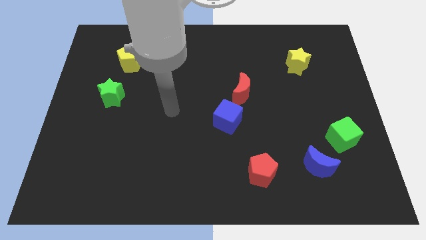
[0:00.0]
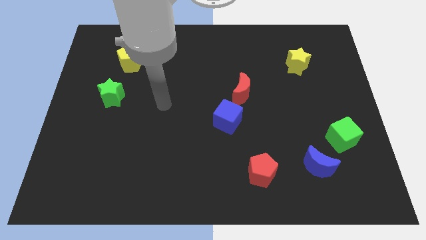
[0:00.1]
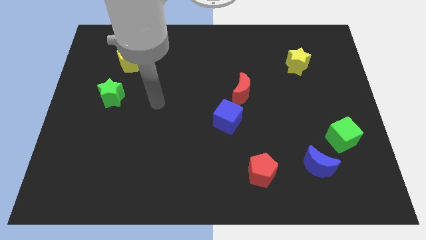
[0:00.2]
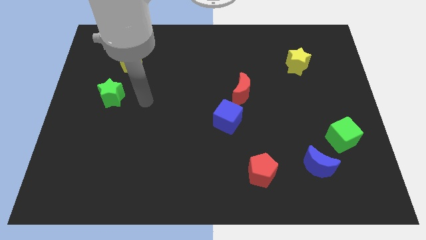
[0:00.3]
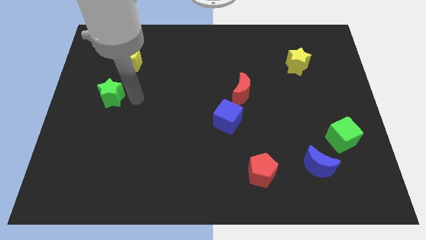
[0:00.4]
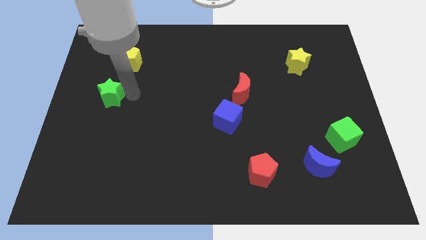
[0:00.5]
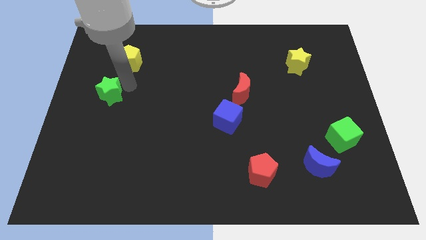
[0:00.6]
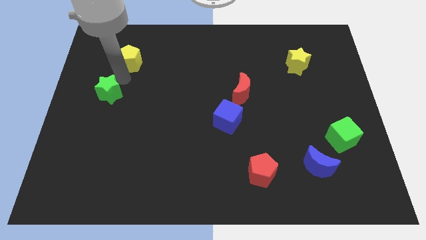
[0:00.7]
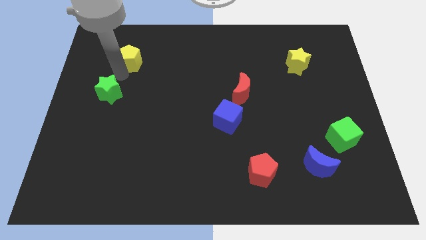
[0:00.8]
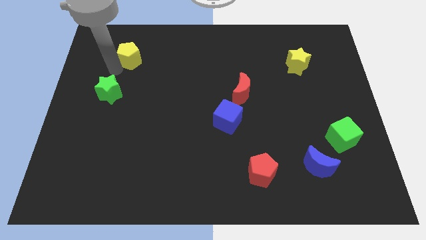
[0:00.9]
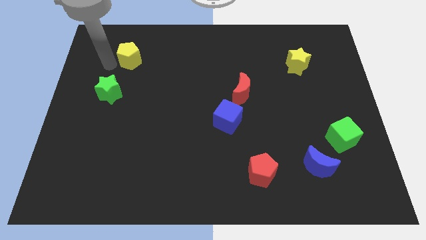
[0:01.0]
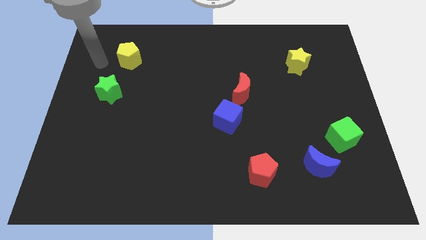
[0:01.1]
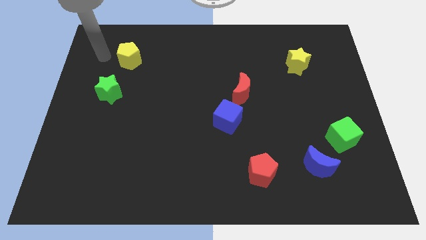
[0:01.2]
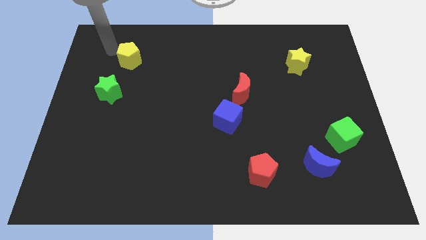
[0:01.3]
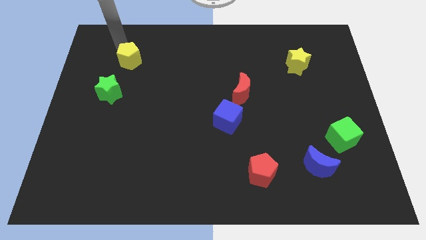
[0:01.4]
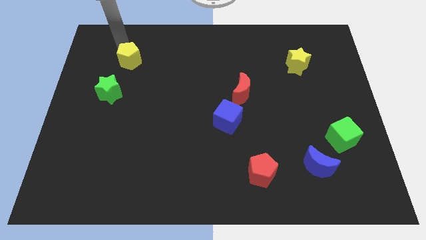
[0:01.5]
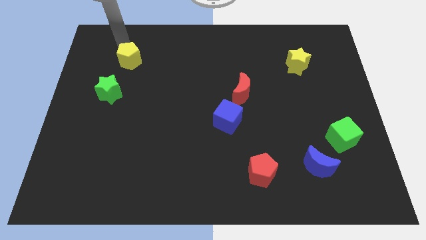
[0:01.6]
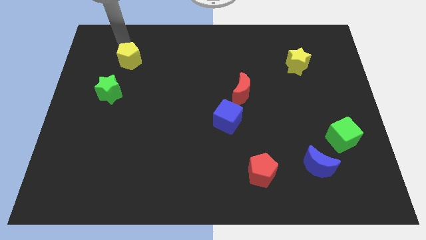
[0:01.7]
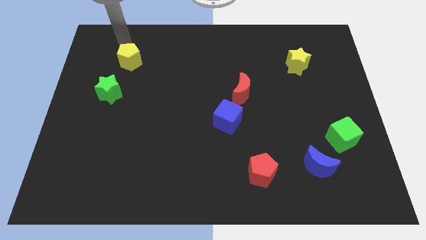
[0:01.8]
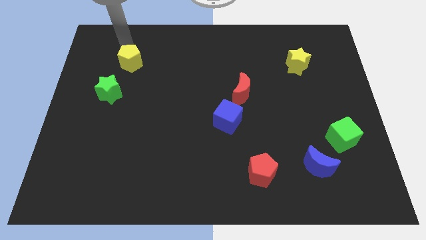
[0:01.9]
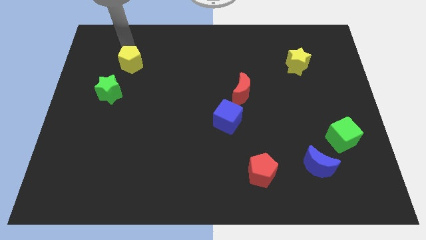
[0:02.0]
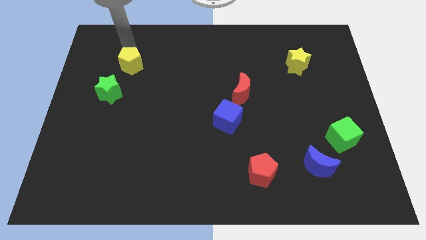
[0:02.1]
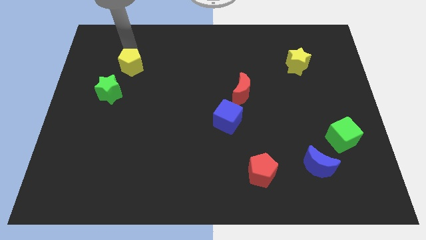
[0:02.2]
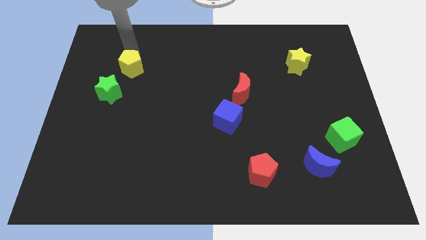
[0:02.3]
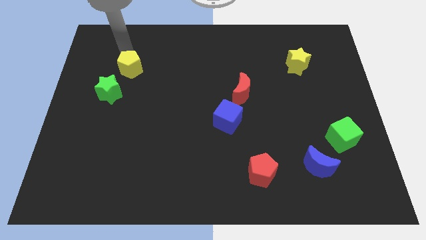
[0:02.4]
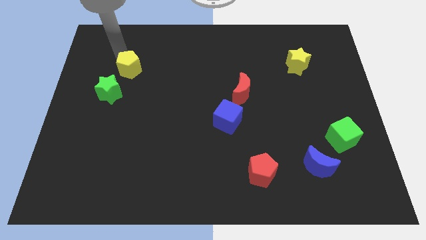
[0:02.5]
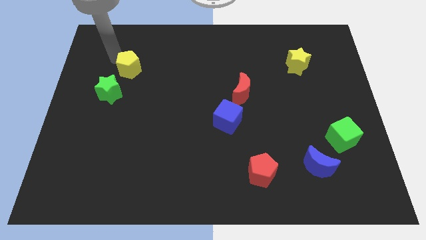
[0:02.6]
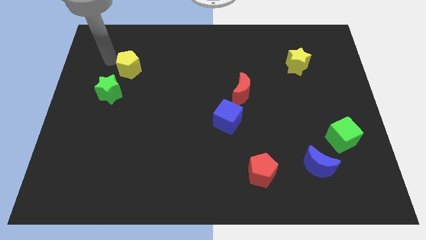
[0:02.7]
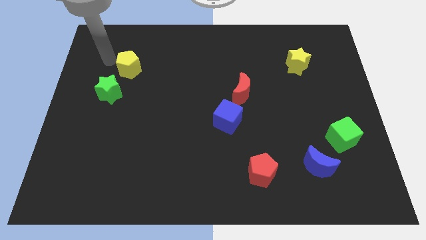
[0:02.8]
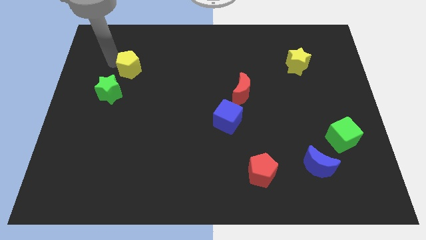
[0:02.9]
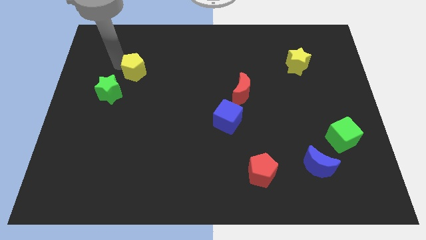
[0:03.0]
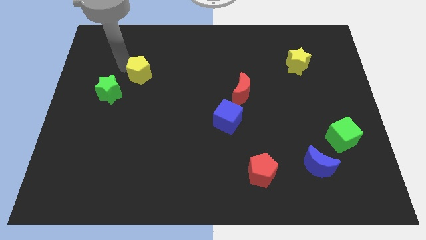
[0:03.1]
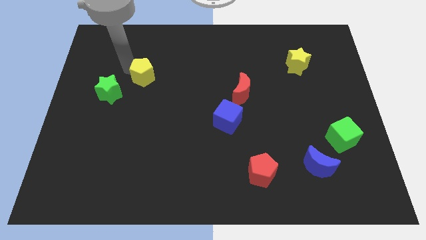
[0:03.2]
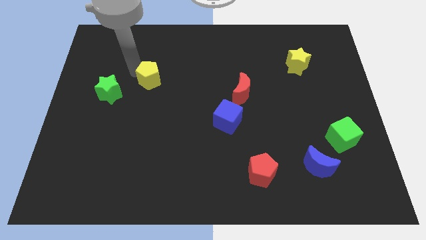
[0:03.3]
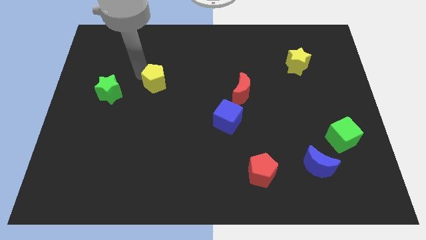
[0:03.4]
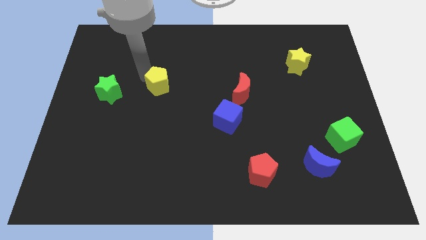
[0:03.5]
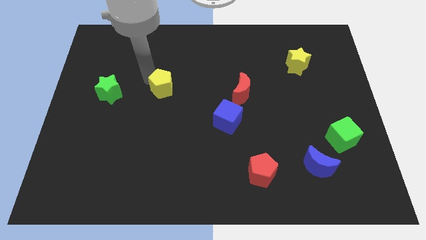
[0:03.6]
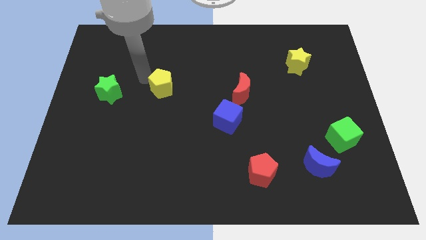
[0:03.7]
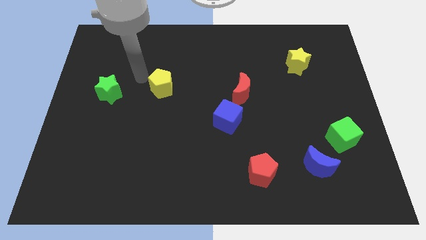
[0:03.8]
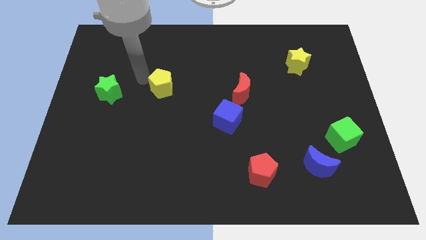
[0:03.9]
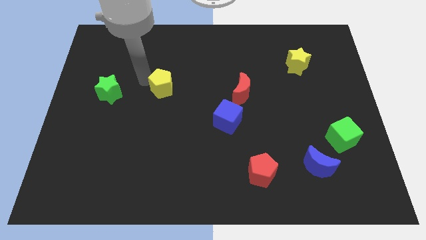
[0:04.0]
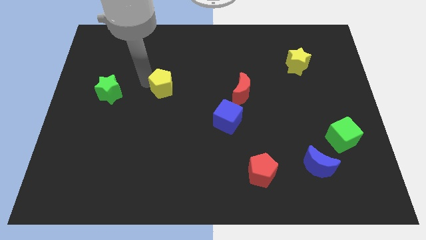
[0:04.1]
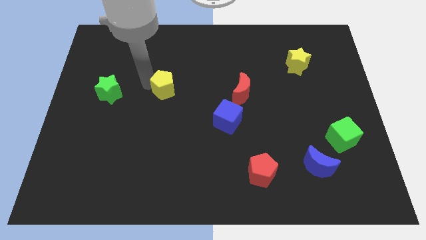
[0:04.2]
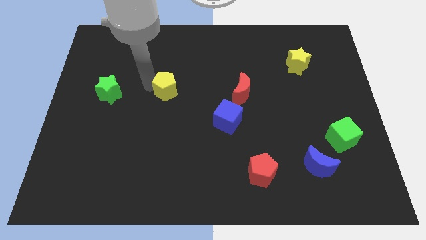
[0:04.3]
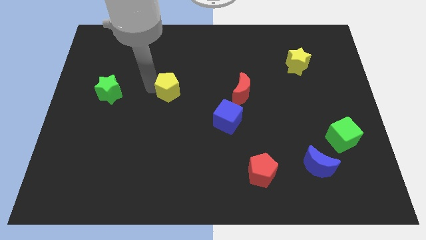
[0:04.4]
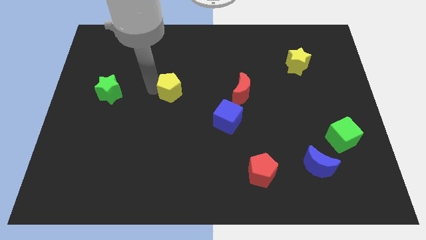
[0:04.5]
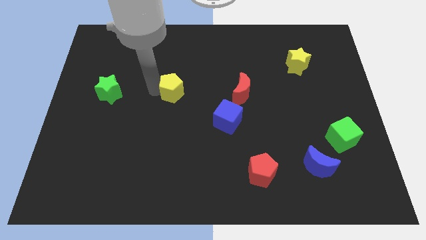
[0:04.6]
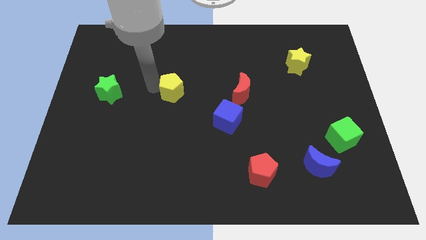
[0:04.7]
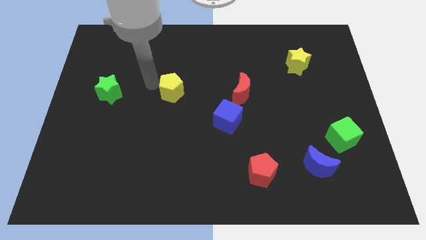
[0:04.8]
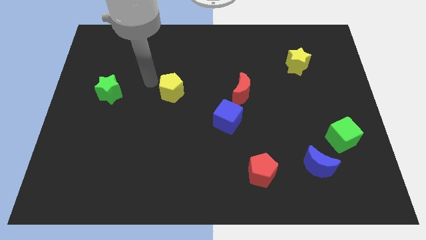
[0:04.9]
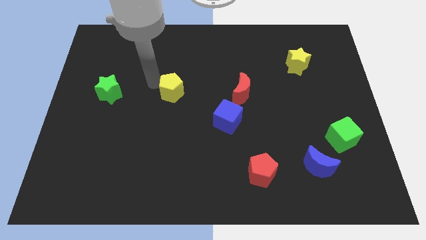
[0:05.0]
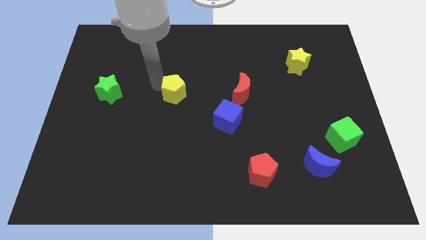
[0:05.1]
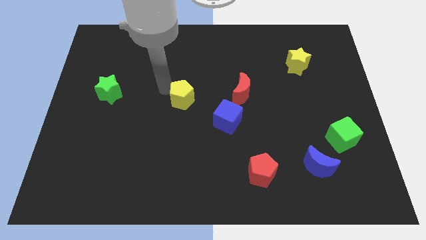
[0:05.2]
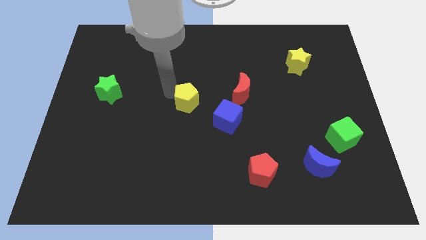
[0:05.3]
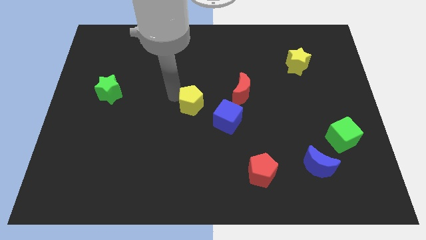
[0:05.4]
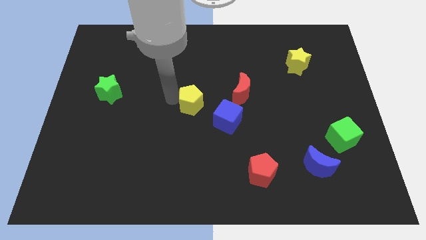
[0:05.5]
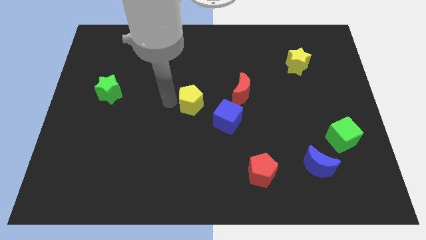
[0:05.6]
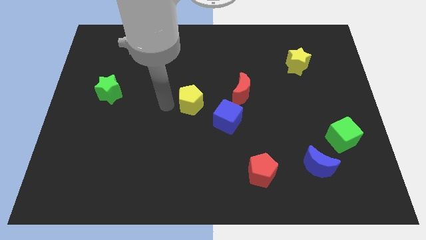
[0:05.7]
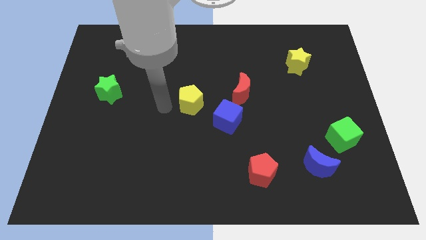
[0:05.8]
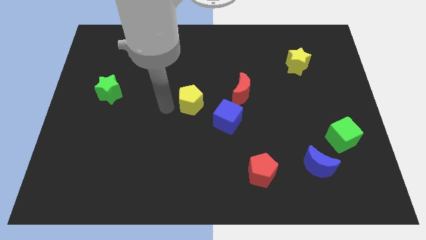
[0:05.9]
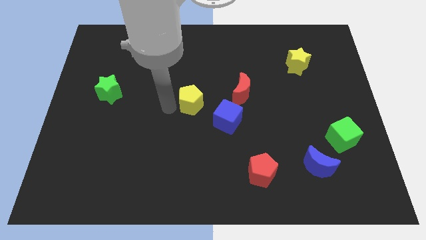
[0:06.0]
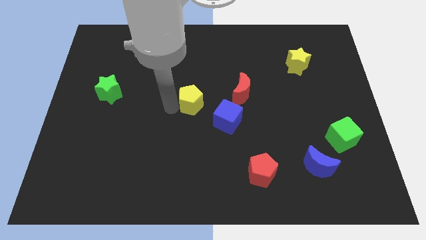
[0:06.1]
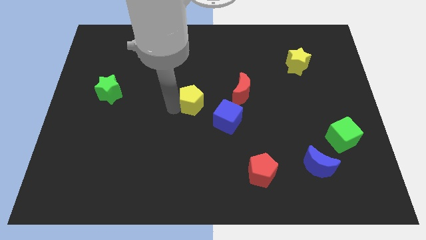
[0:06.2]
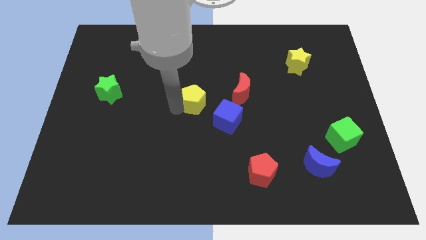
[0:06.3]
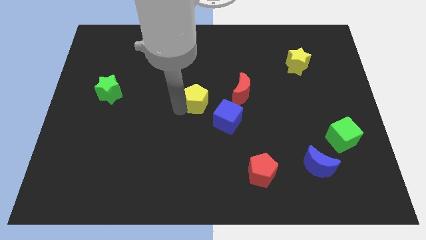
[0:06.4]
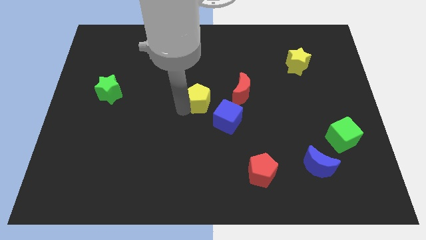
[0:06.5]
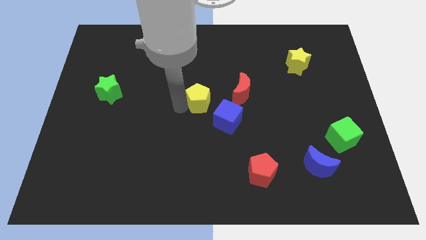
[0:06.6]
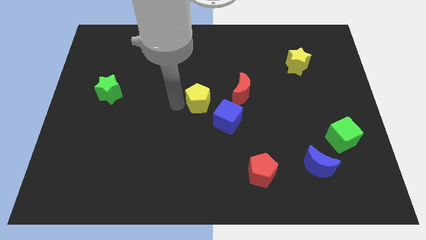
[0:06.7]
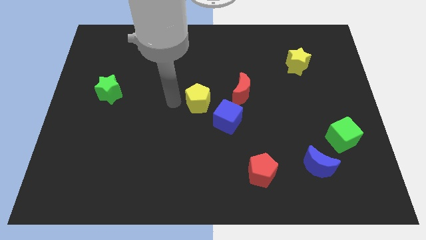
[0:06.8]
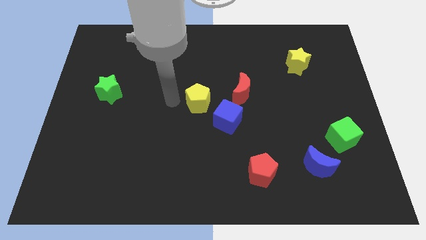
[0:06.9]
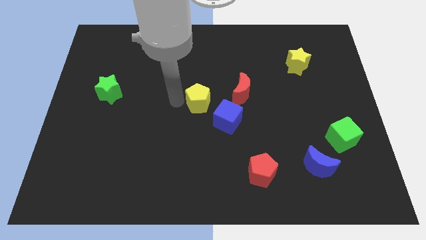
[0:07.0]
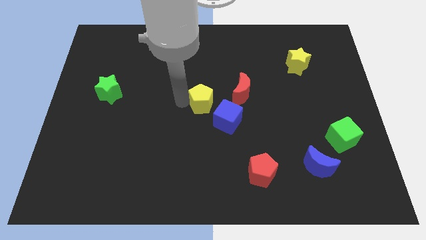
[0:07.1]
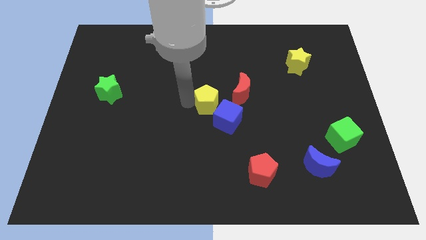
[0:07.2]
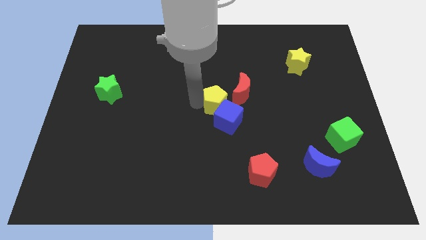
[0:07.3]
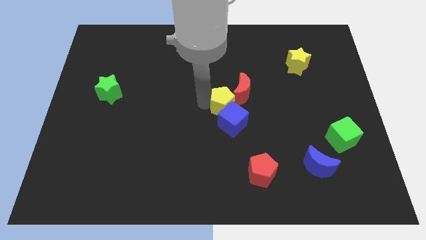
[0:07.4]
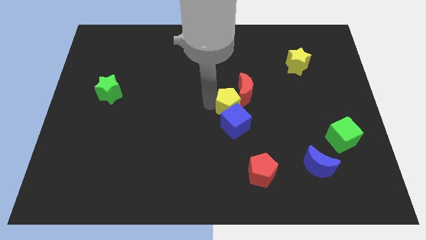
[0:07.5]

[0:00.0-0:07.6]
push the yellow pentagon to the top right of the blue cube

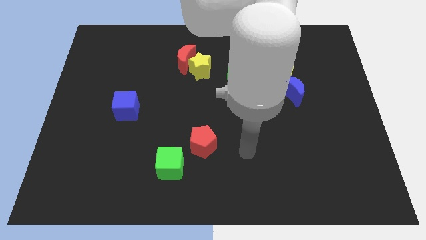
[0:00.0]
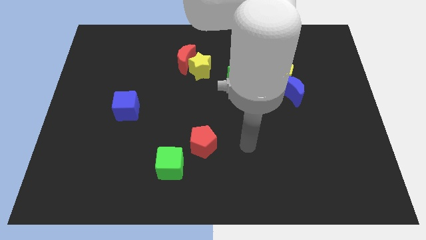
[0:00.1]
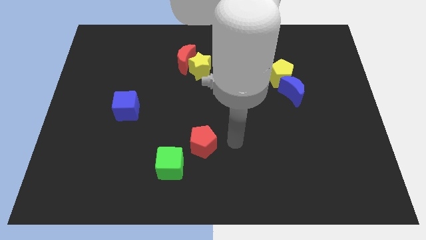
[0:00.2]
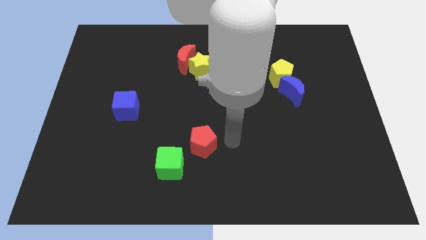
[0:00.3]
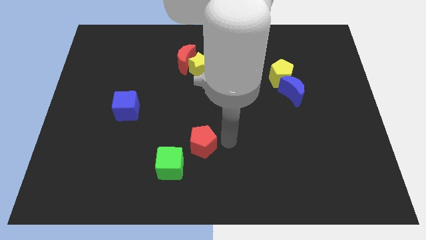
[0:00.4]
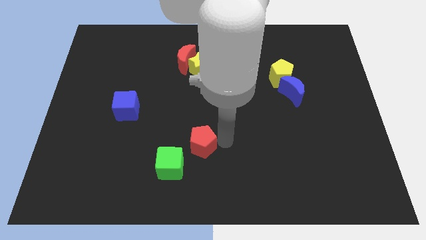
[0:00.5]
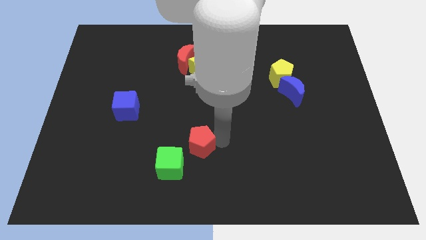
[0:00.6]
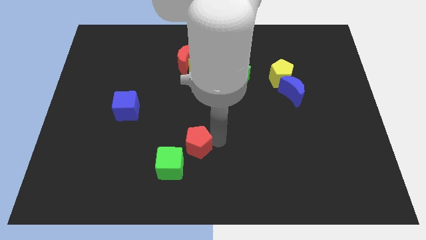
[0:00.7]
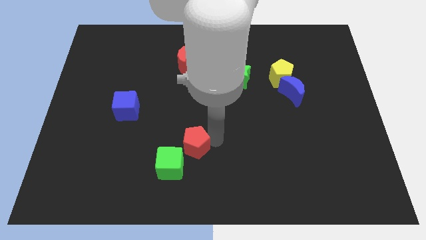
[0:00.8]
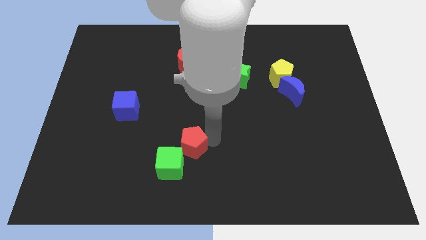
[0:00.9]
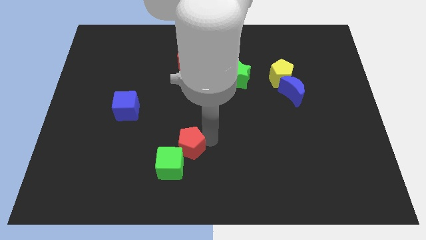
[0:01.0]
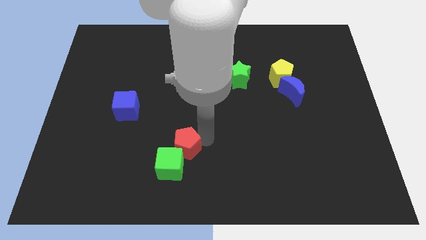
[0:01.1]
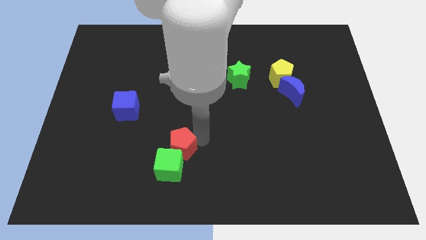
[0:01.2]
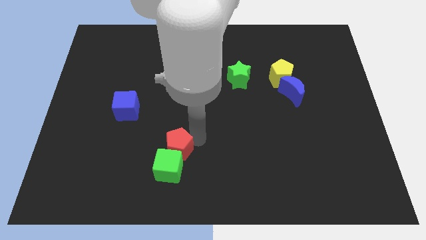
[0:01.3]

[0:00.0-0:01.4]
put the red pentagon to the top left of the green cube
